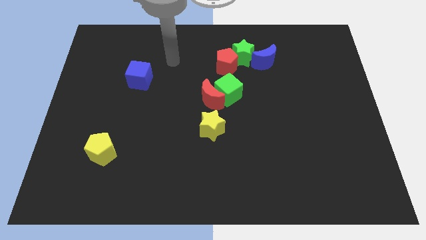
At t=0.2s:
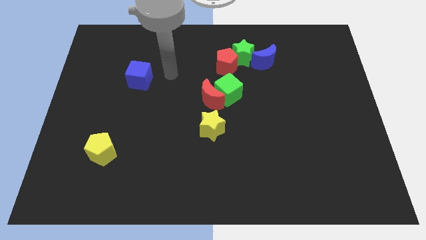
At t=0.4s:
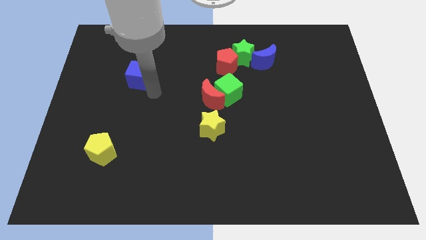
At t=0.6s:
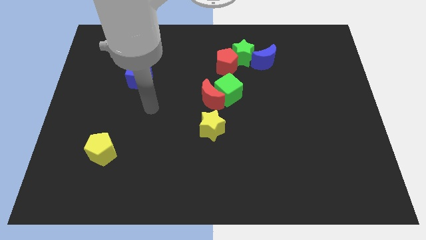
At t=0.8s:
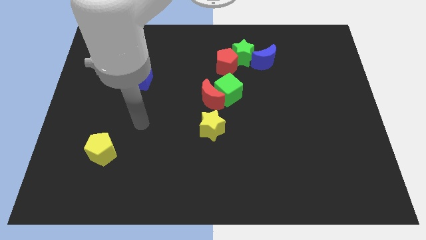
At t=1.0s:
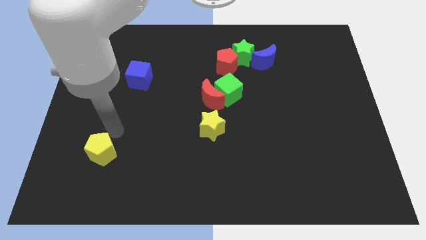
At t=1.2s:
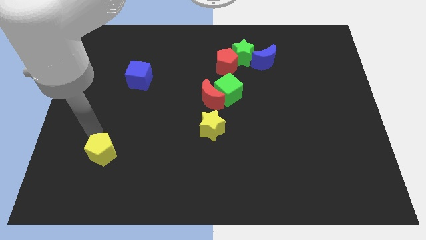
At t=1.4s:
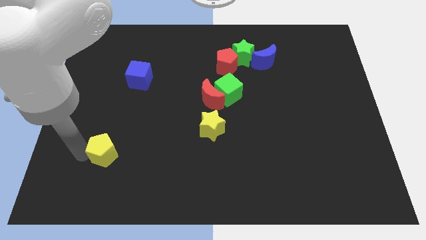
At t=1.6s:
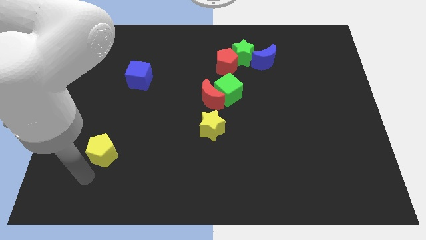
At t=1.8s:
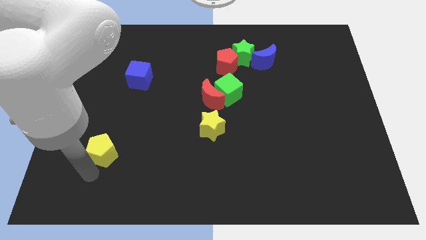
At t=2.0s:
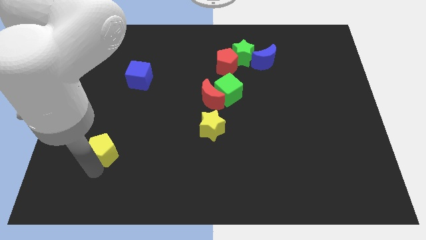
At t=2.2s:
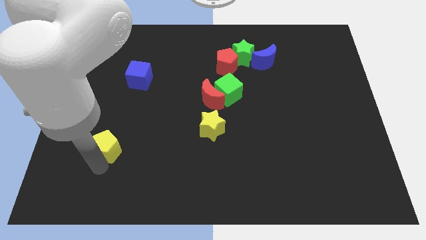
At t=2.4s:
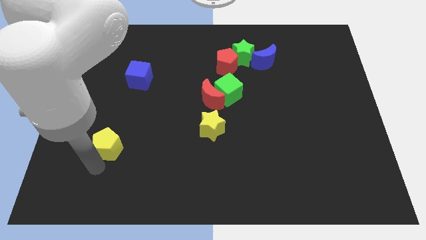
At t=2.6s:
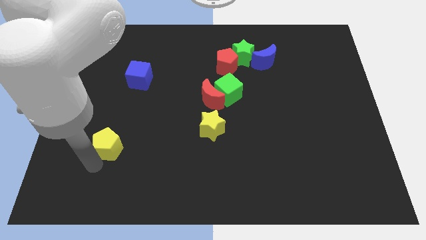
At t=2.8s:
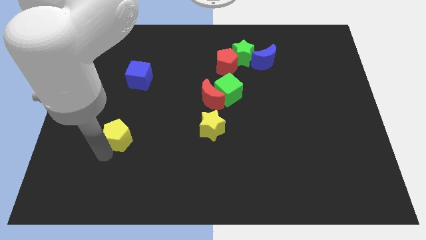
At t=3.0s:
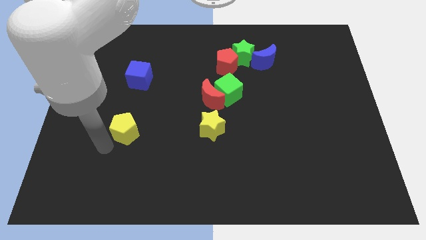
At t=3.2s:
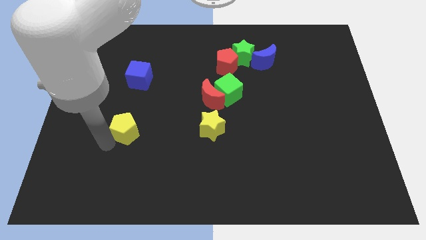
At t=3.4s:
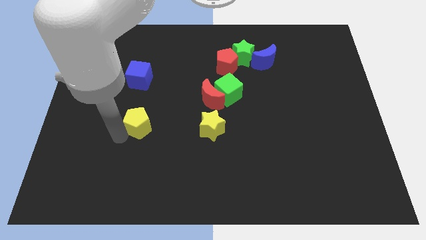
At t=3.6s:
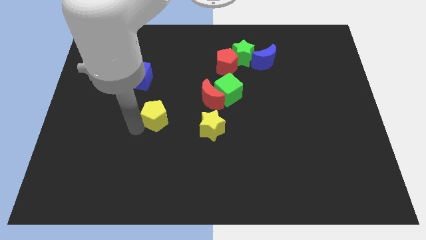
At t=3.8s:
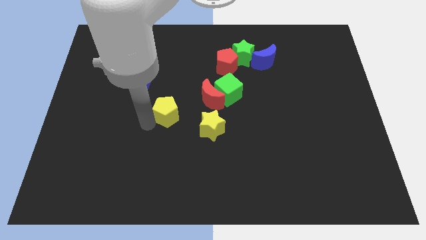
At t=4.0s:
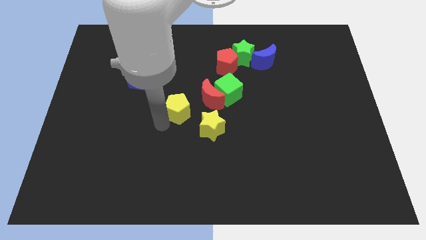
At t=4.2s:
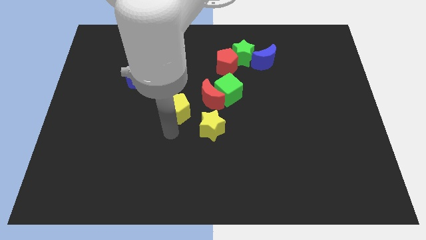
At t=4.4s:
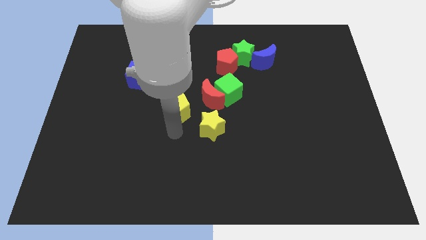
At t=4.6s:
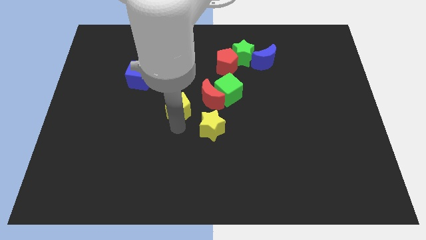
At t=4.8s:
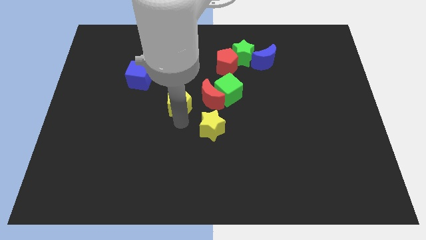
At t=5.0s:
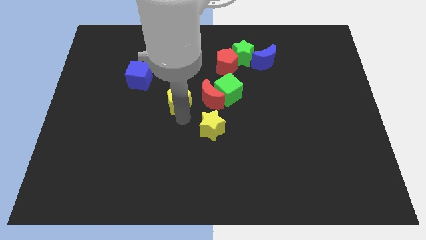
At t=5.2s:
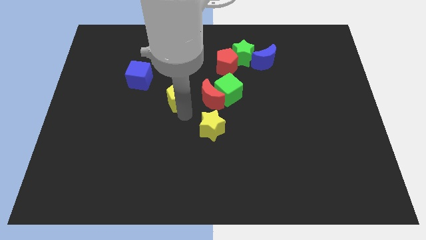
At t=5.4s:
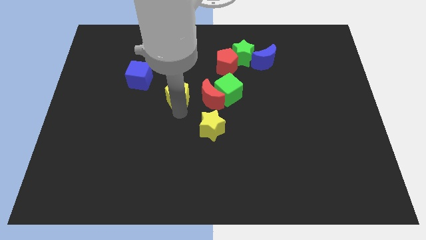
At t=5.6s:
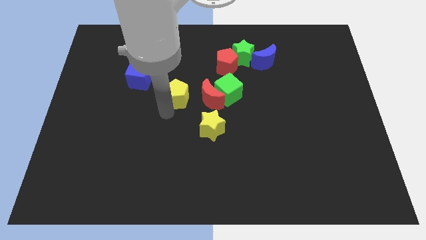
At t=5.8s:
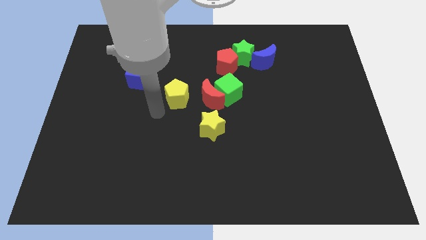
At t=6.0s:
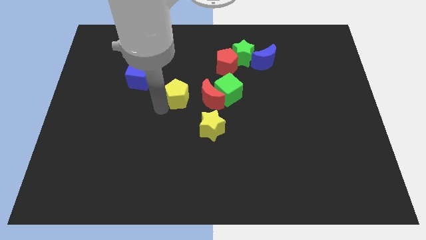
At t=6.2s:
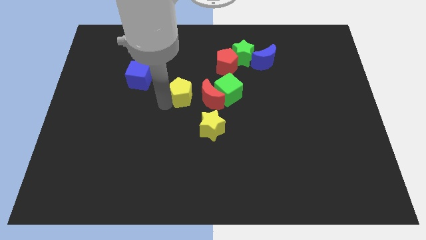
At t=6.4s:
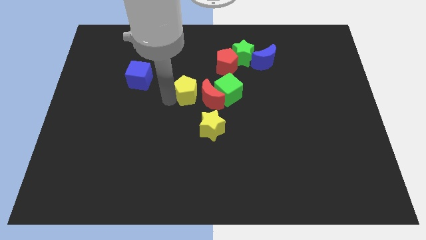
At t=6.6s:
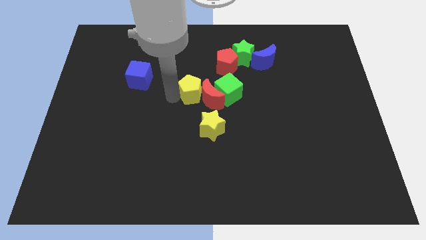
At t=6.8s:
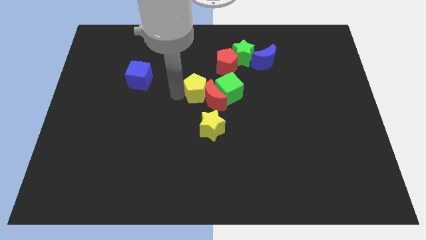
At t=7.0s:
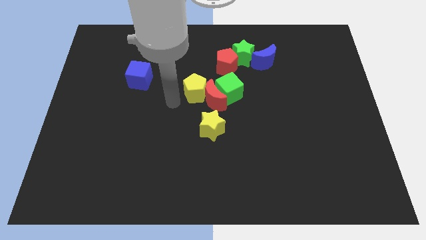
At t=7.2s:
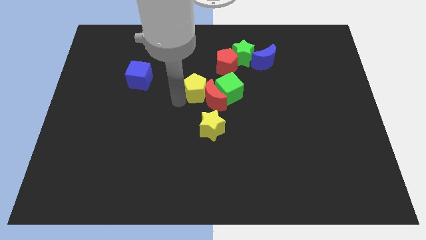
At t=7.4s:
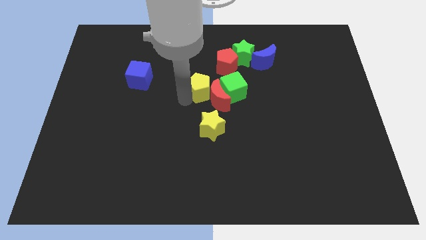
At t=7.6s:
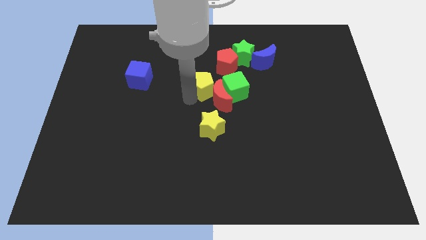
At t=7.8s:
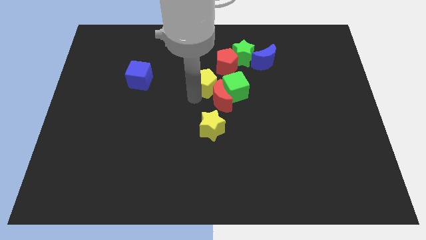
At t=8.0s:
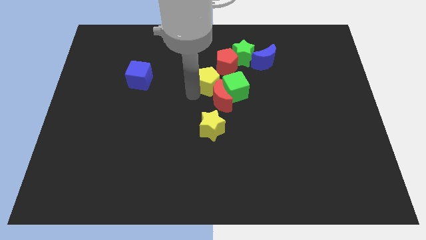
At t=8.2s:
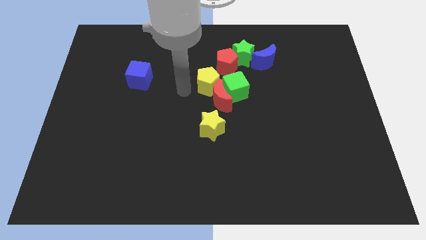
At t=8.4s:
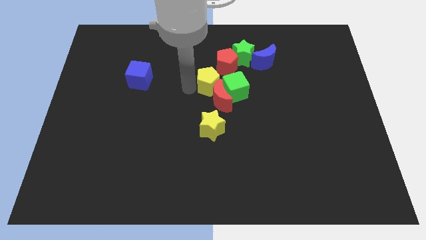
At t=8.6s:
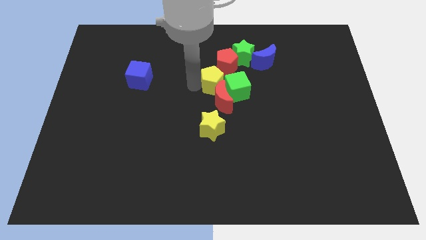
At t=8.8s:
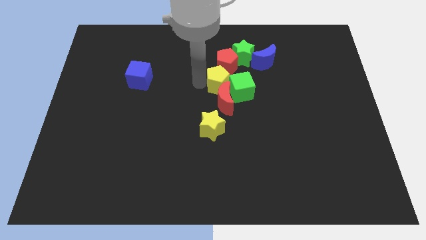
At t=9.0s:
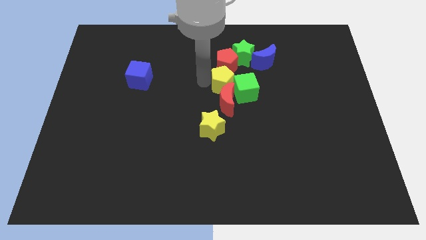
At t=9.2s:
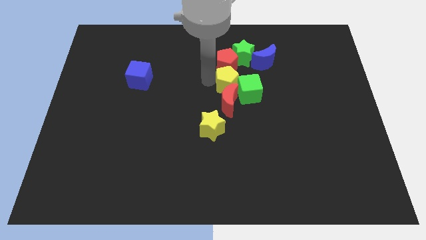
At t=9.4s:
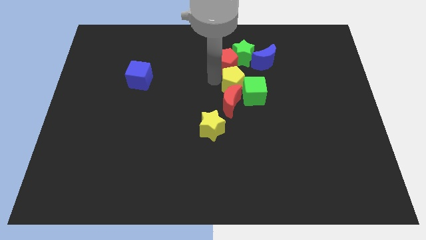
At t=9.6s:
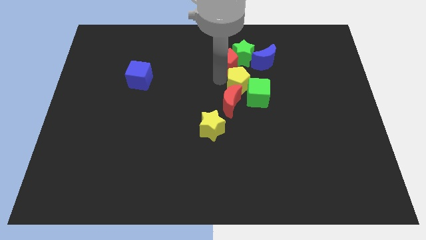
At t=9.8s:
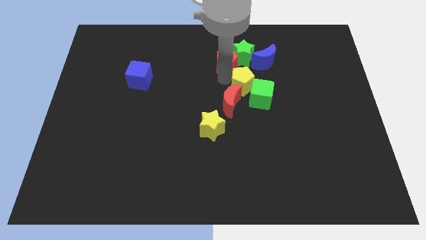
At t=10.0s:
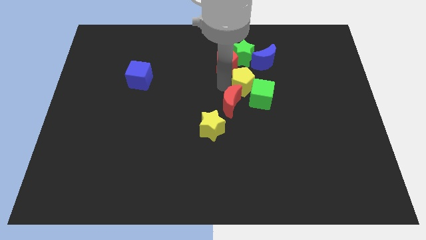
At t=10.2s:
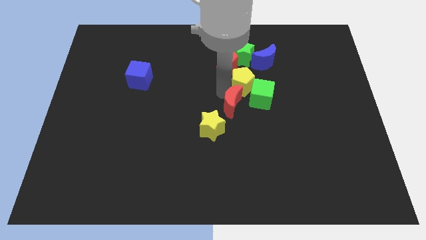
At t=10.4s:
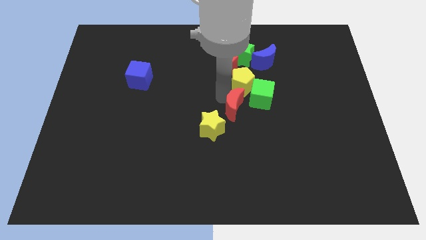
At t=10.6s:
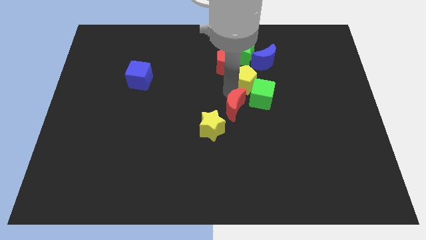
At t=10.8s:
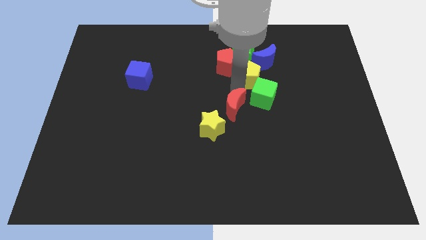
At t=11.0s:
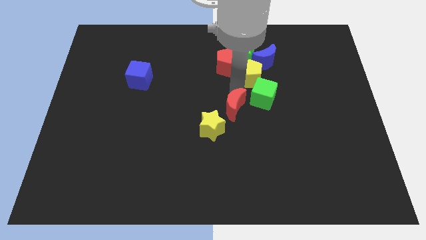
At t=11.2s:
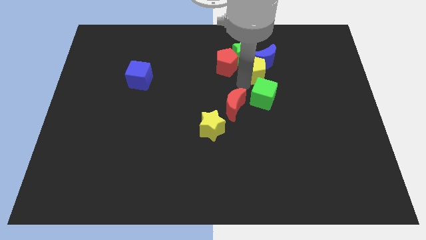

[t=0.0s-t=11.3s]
push the yellow pentagon to the blue moon

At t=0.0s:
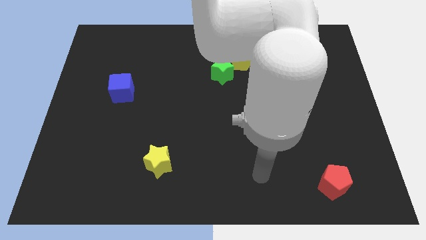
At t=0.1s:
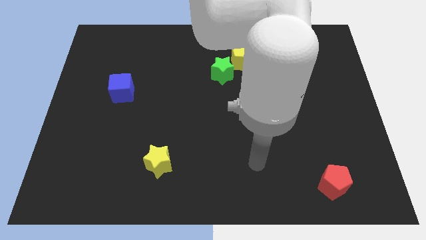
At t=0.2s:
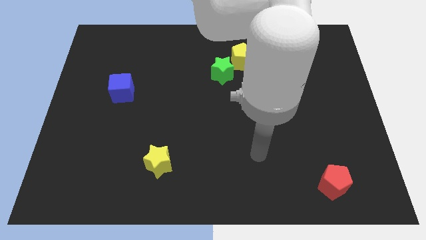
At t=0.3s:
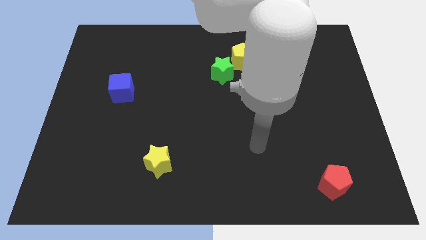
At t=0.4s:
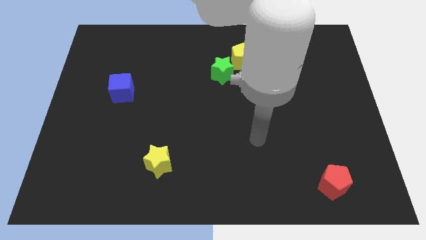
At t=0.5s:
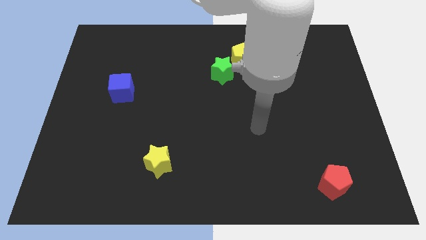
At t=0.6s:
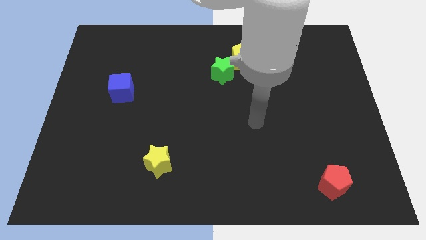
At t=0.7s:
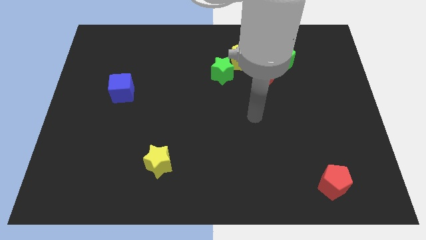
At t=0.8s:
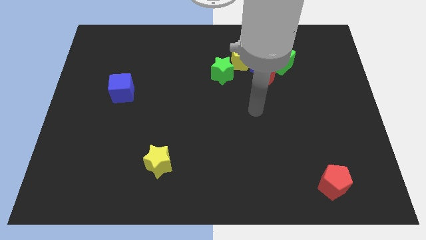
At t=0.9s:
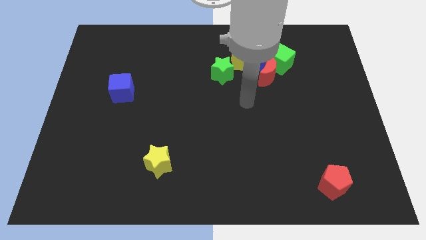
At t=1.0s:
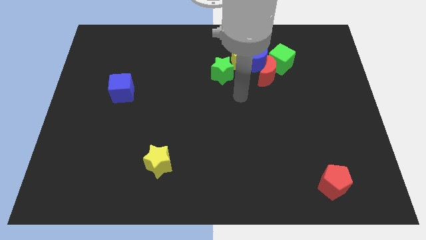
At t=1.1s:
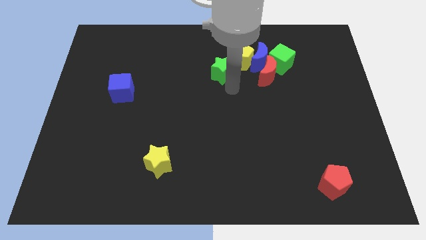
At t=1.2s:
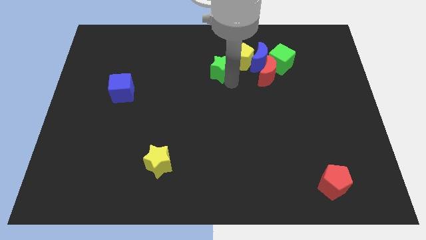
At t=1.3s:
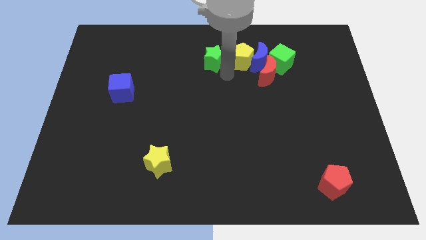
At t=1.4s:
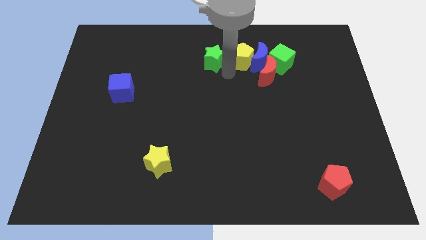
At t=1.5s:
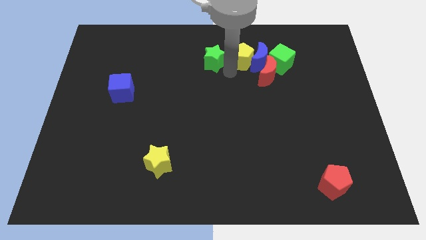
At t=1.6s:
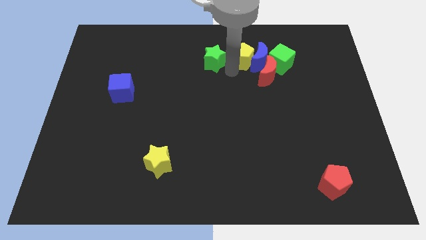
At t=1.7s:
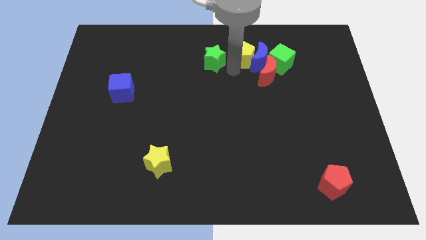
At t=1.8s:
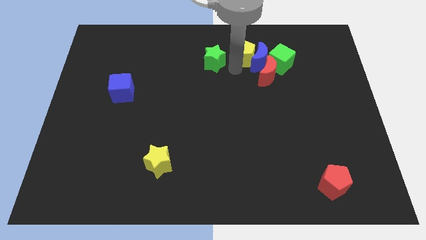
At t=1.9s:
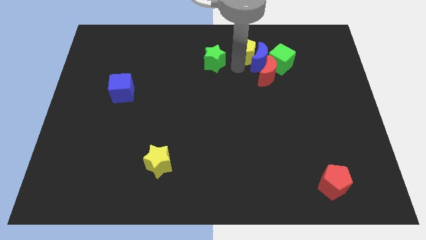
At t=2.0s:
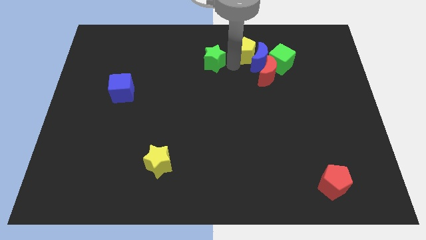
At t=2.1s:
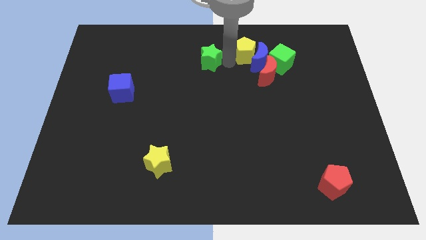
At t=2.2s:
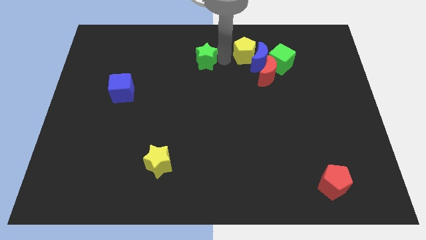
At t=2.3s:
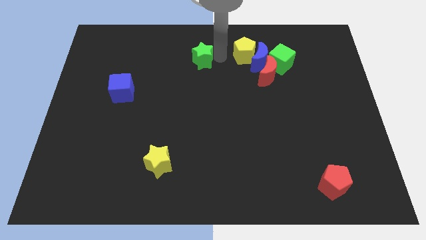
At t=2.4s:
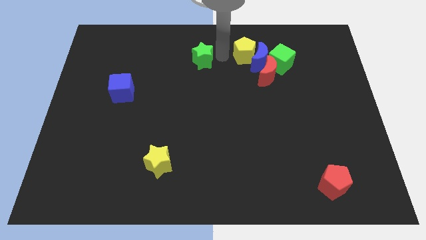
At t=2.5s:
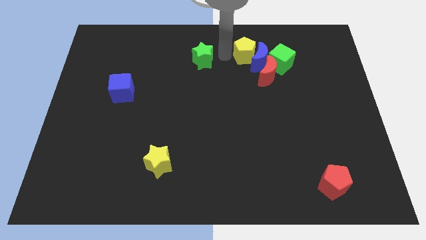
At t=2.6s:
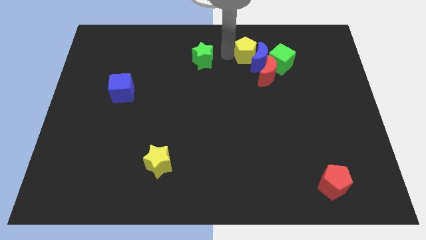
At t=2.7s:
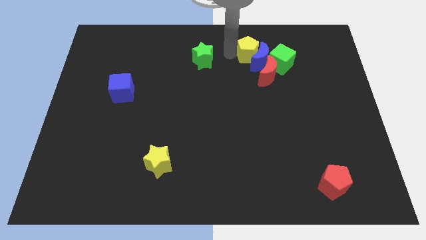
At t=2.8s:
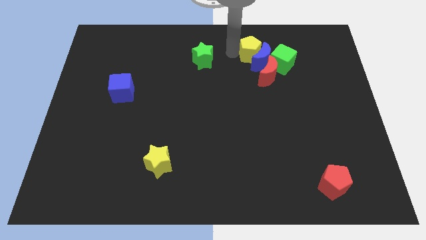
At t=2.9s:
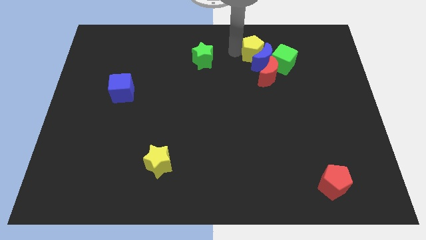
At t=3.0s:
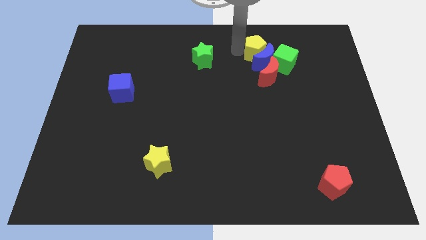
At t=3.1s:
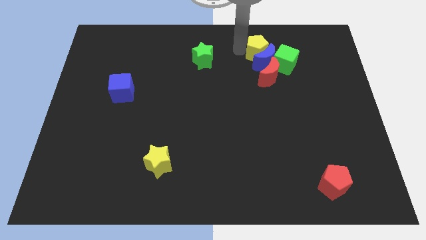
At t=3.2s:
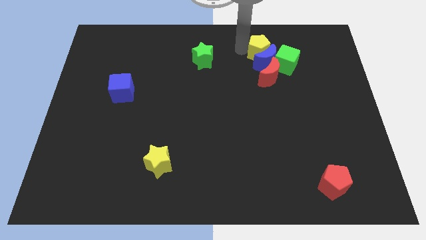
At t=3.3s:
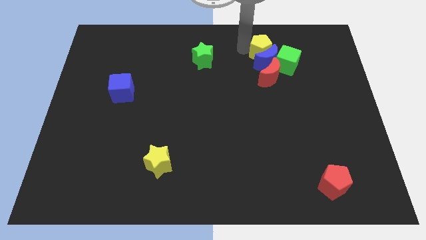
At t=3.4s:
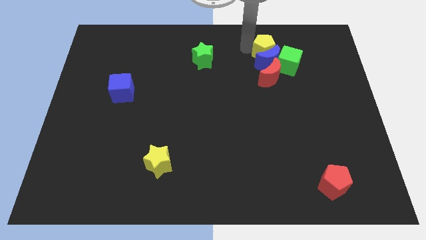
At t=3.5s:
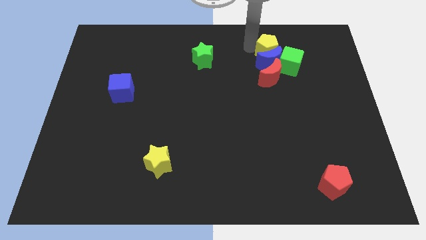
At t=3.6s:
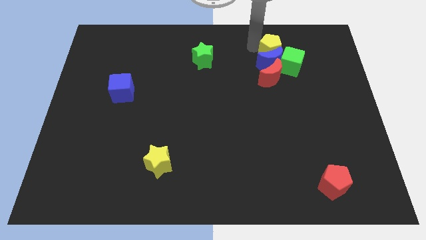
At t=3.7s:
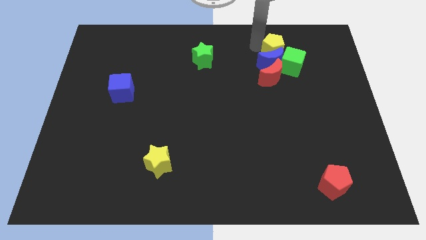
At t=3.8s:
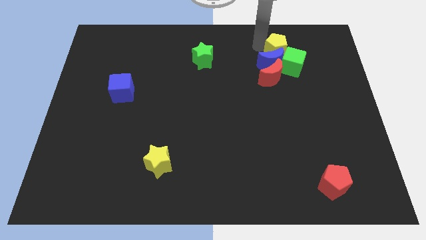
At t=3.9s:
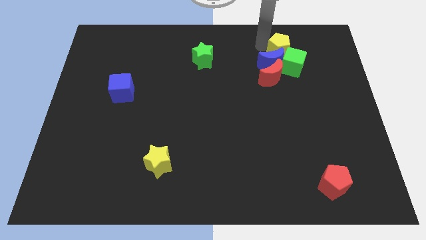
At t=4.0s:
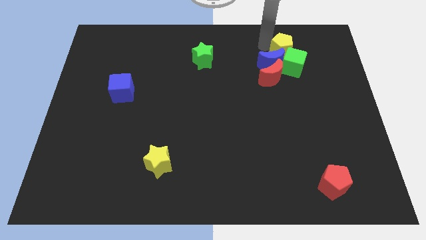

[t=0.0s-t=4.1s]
slide the yellow pentagon next to the green cube
